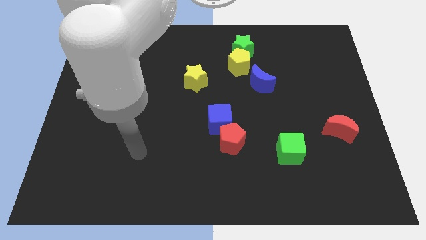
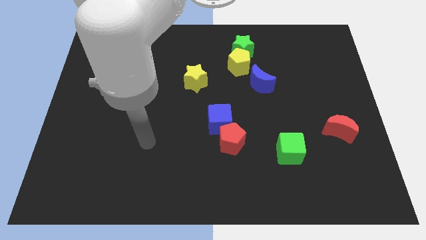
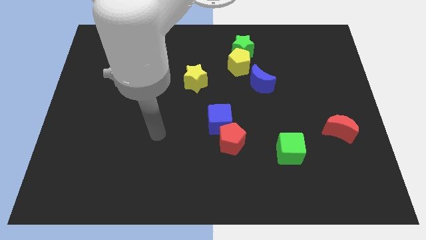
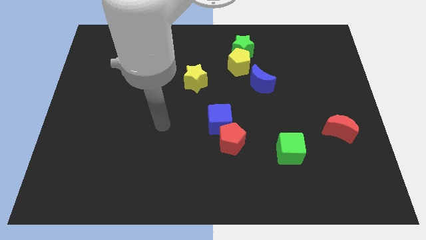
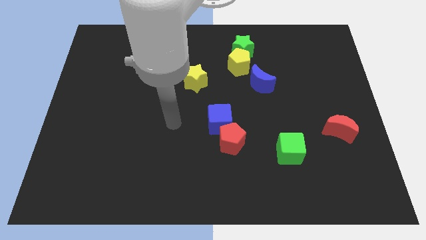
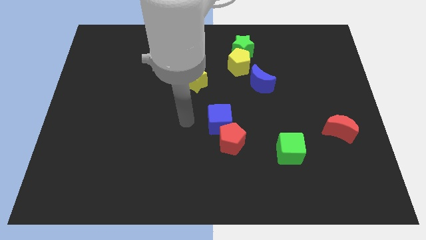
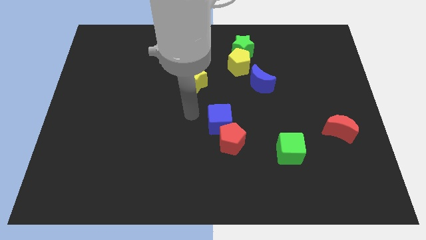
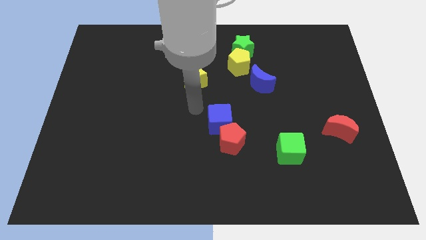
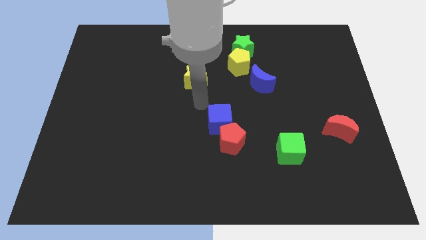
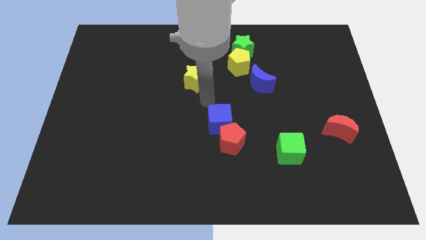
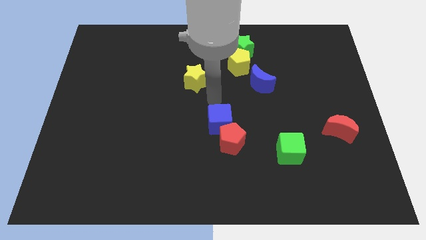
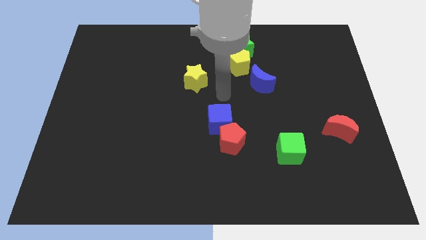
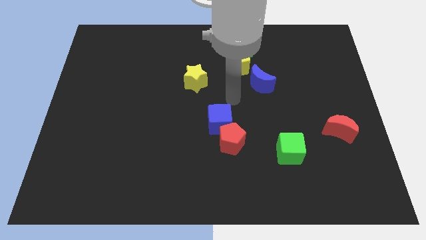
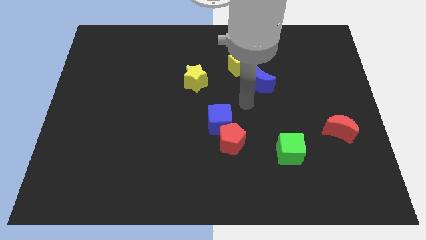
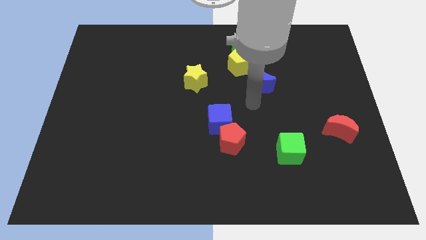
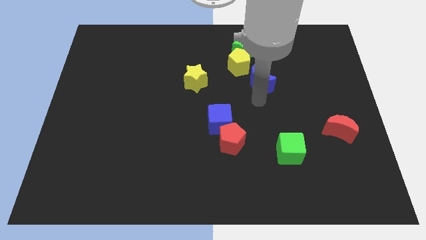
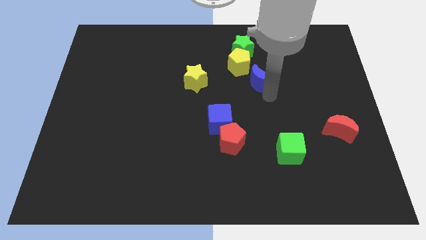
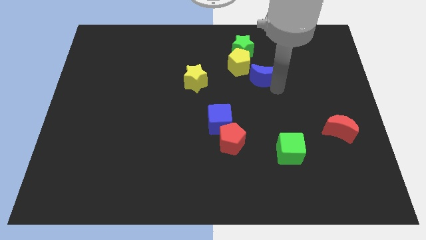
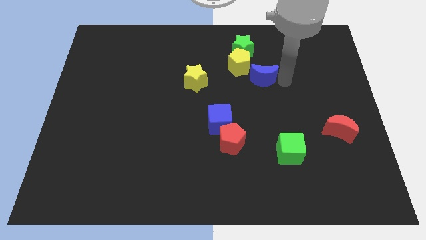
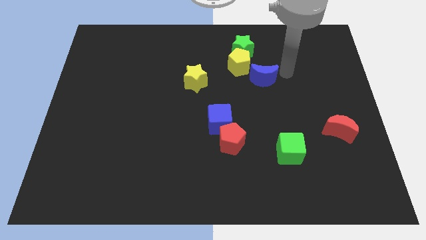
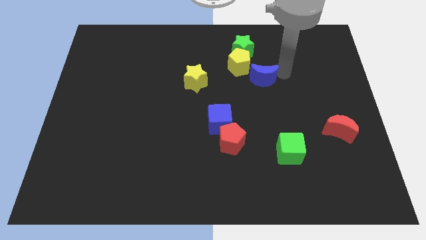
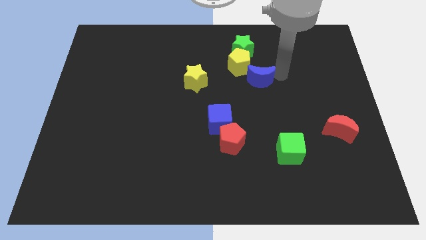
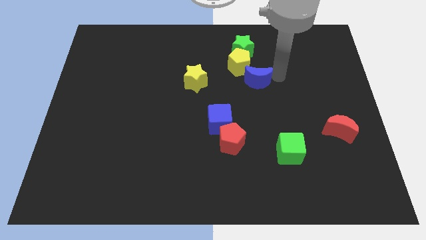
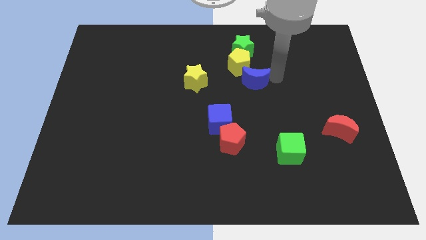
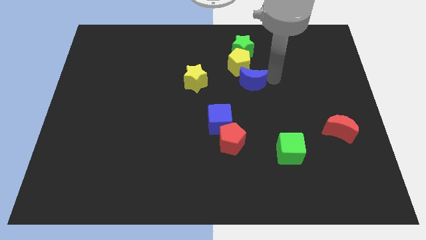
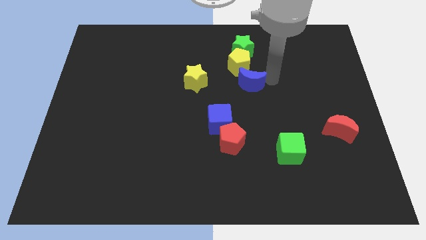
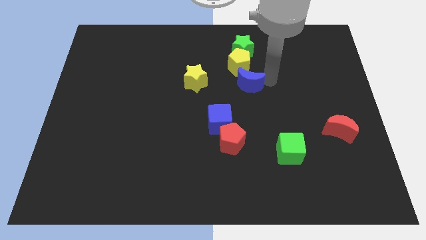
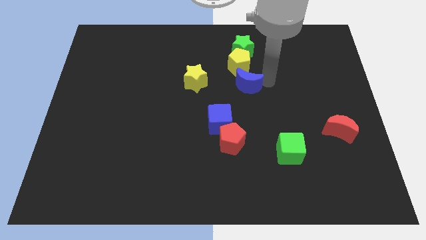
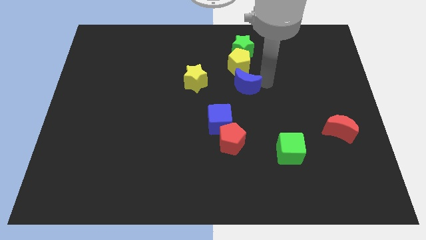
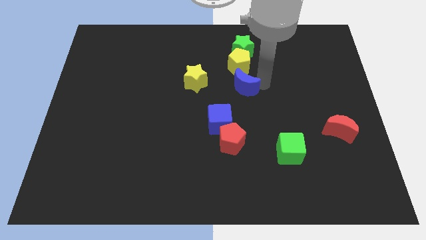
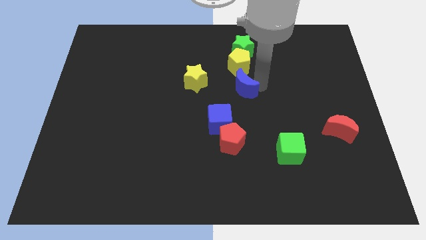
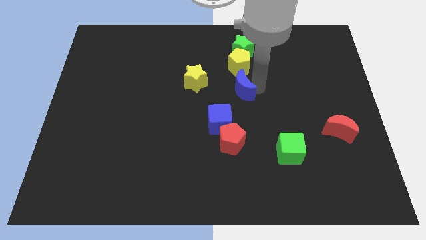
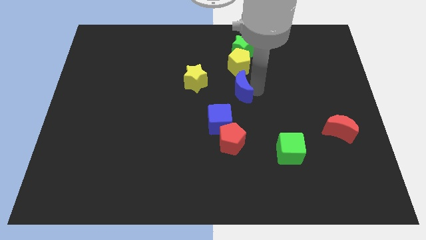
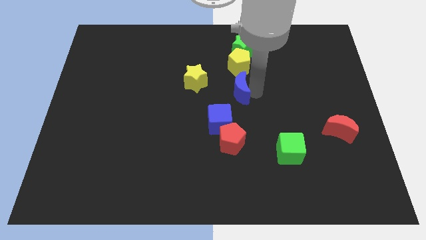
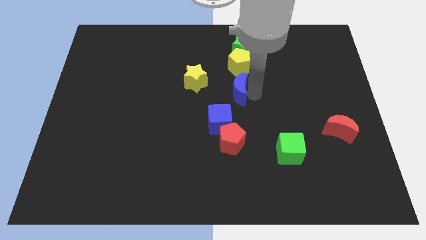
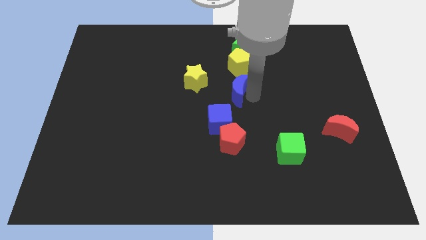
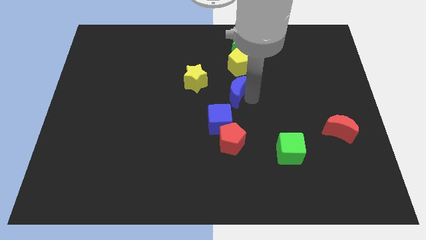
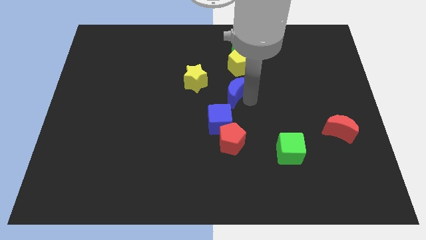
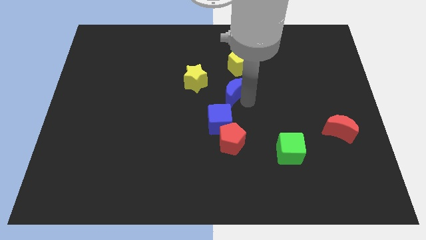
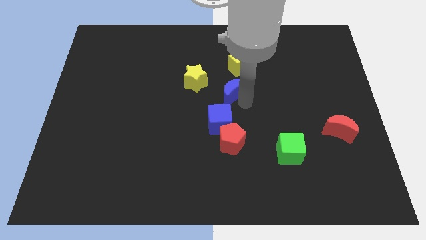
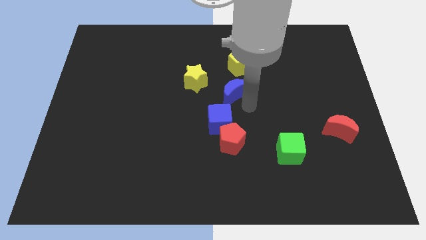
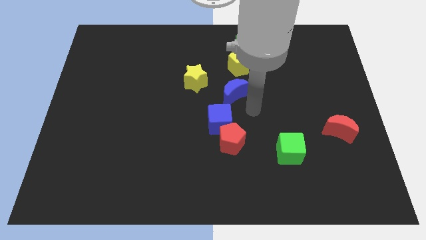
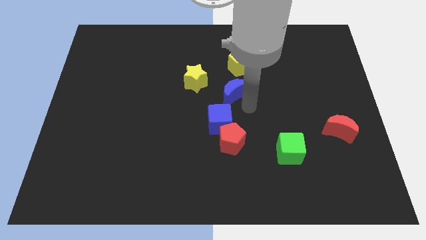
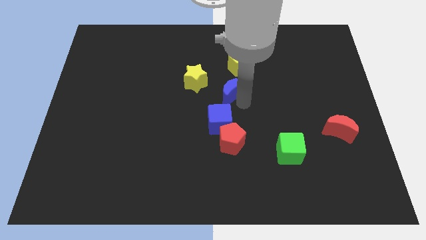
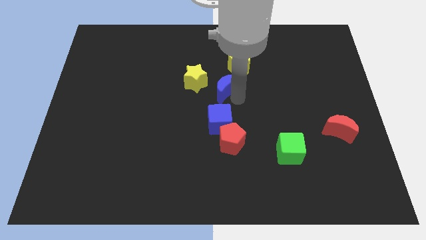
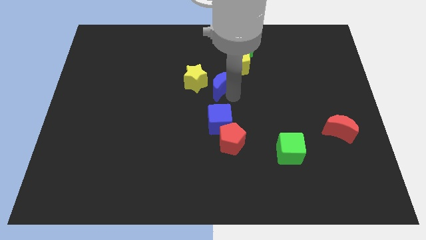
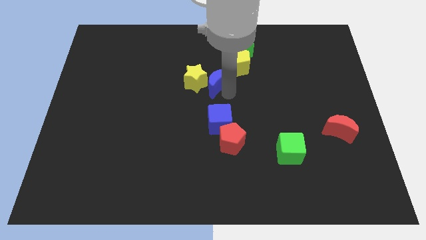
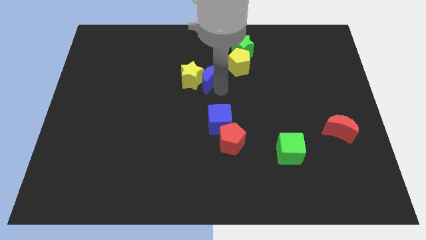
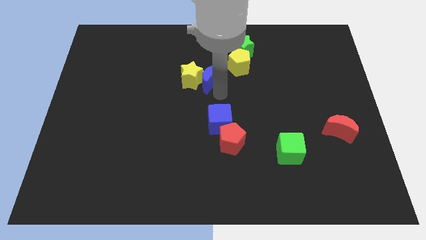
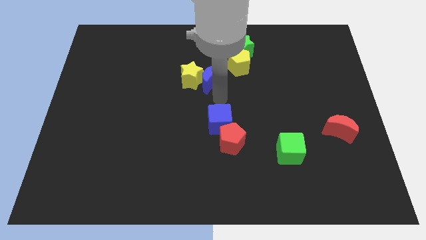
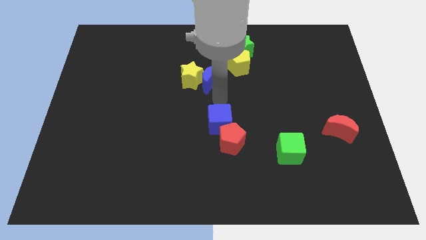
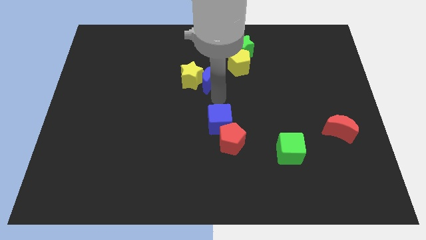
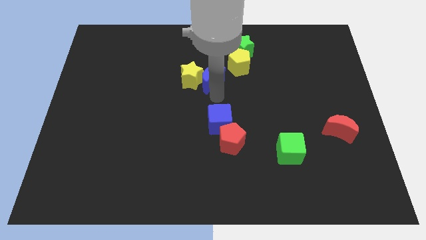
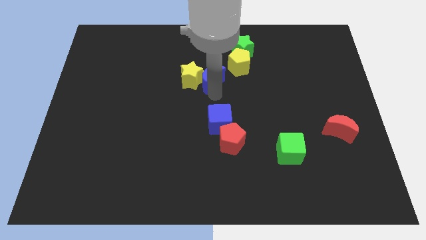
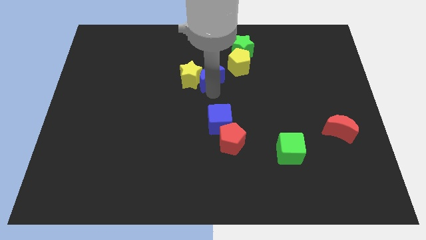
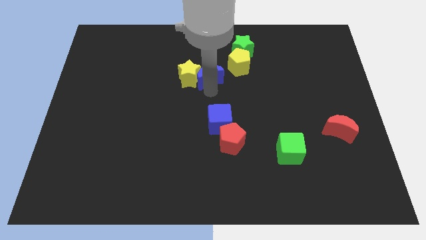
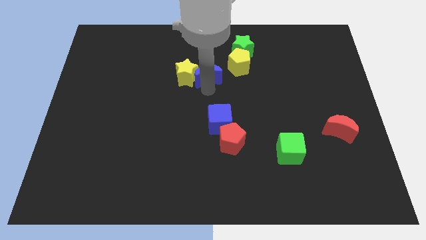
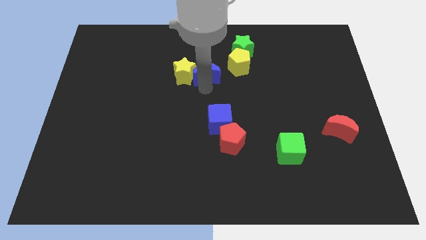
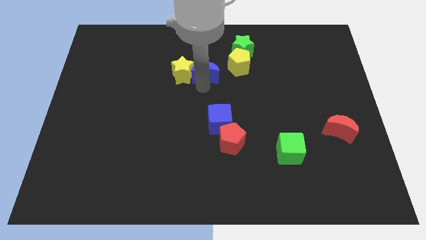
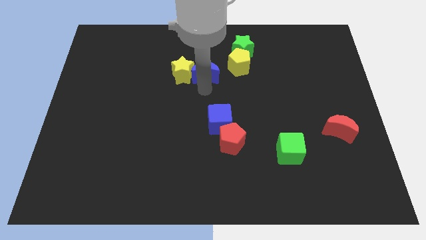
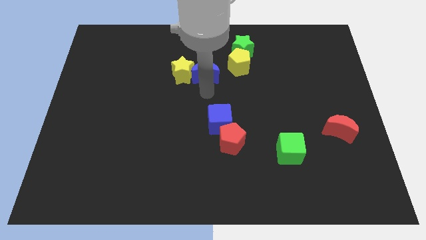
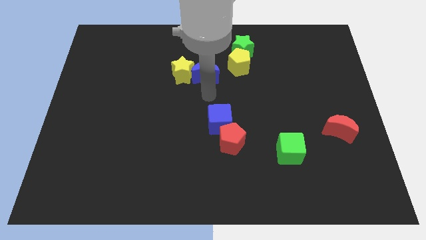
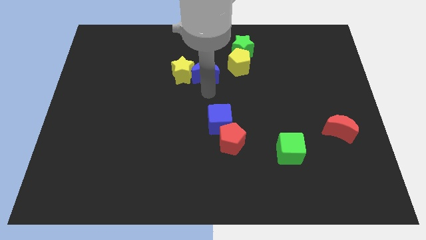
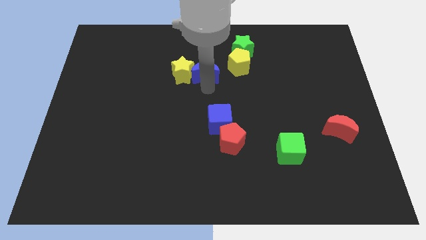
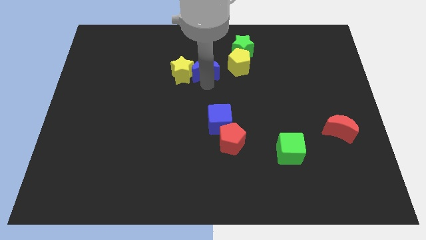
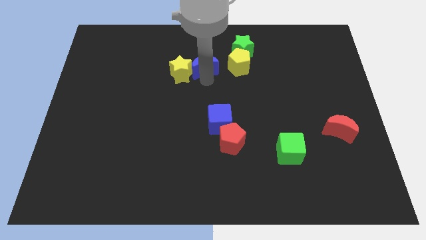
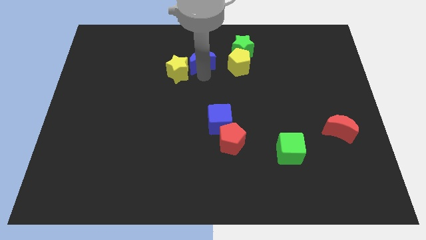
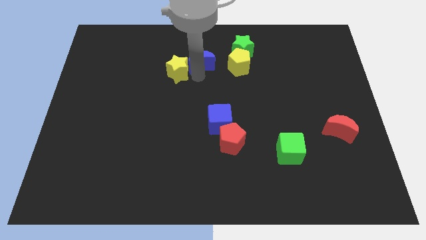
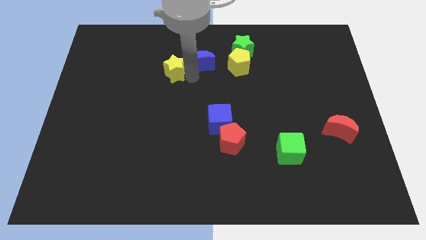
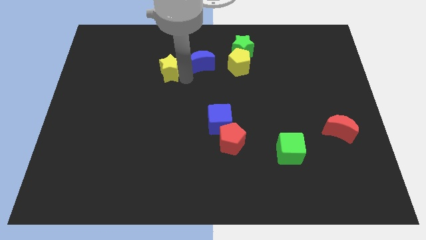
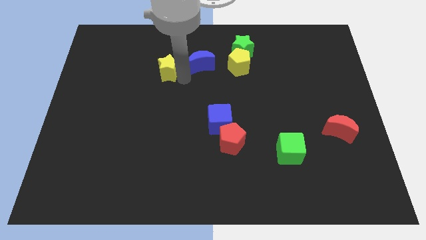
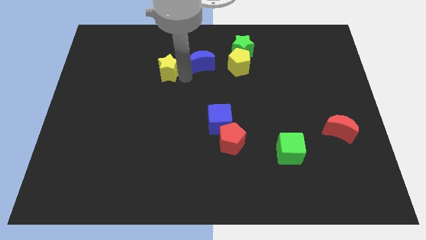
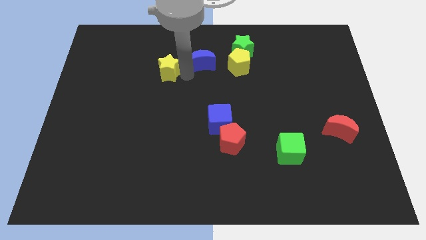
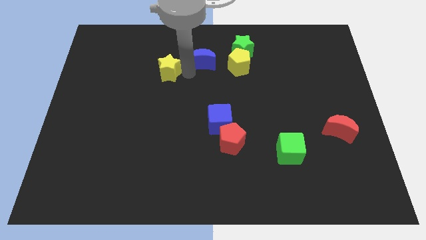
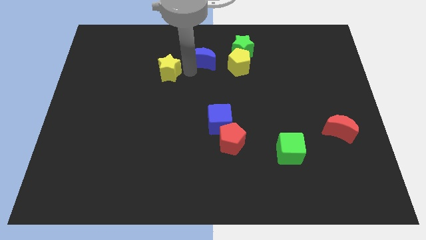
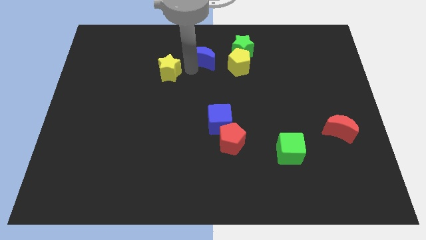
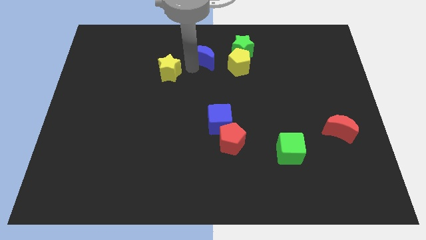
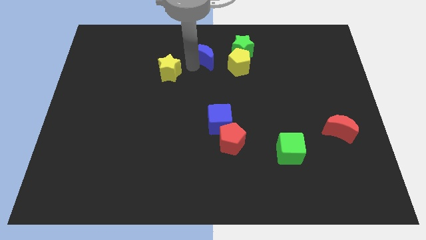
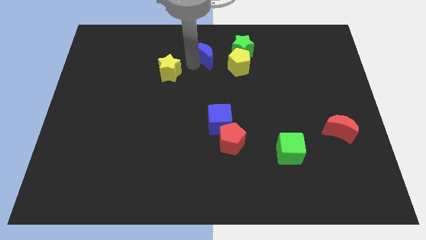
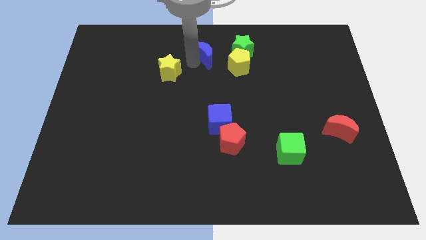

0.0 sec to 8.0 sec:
put the blue moon to the top side
